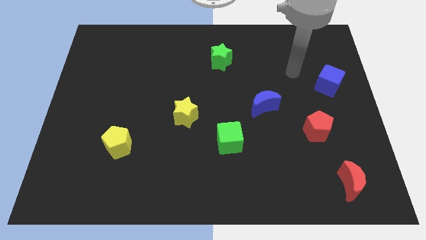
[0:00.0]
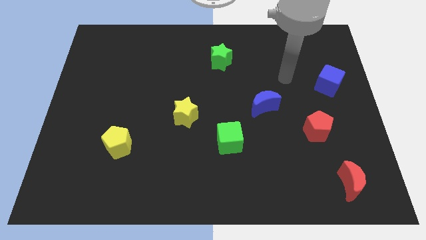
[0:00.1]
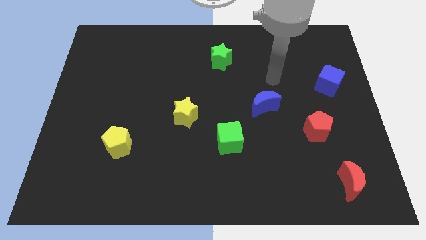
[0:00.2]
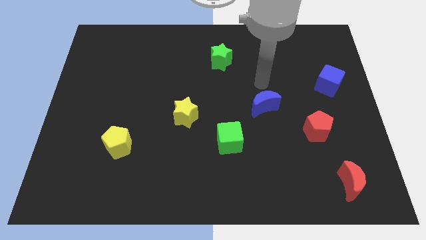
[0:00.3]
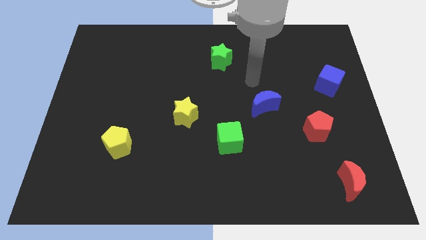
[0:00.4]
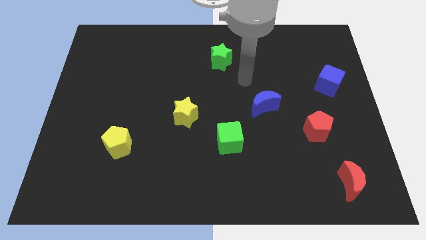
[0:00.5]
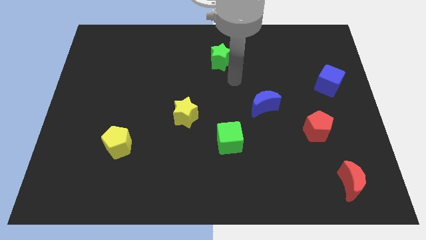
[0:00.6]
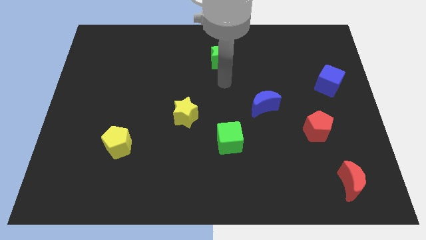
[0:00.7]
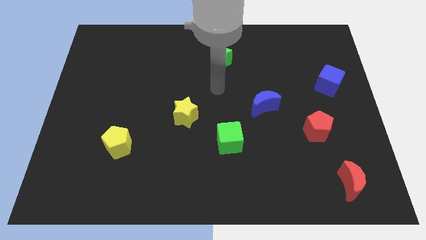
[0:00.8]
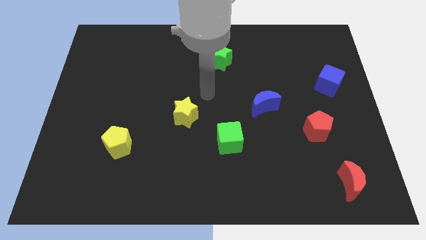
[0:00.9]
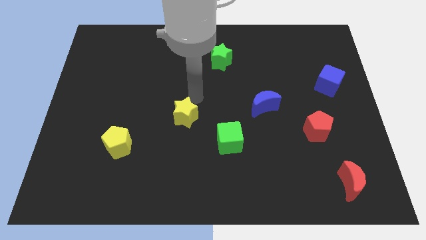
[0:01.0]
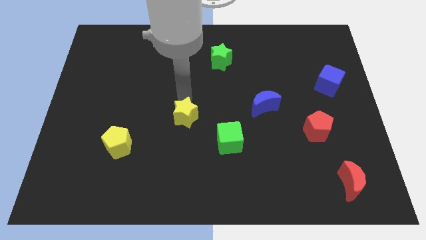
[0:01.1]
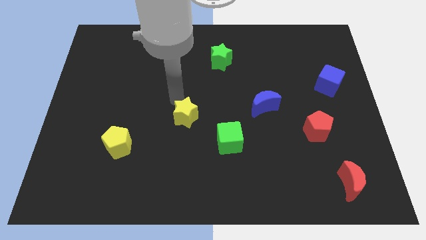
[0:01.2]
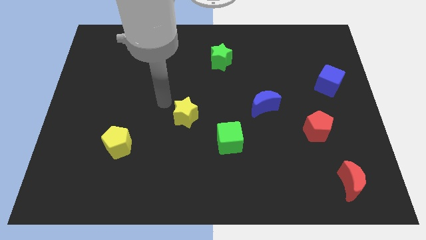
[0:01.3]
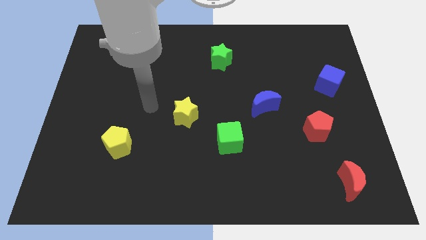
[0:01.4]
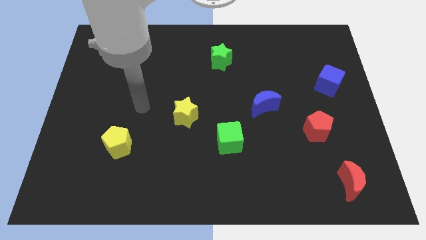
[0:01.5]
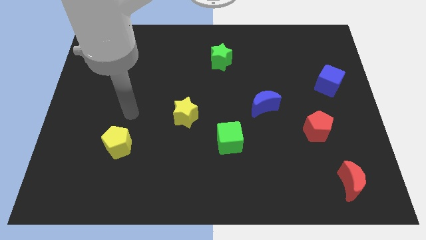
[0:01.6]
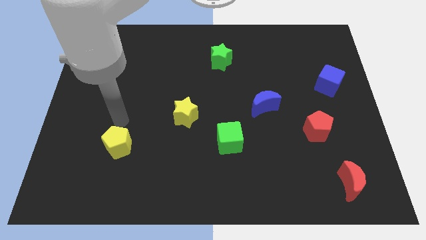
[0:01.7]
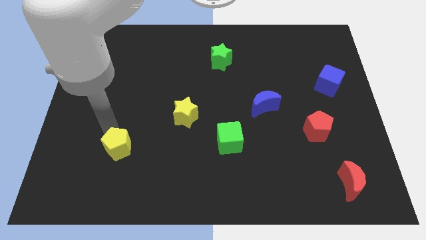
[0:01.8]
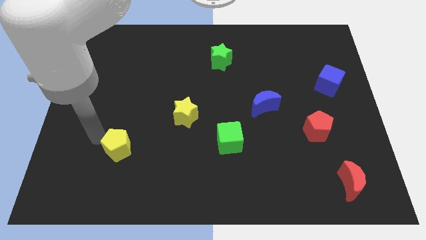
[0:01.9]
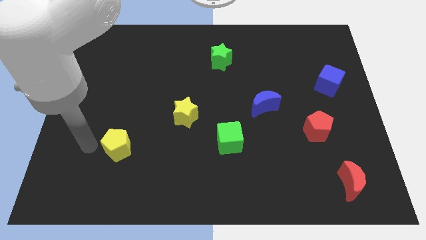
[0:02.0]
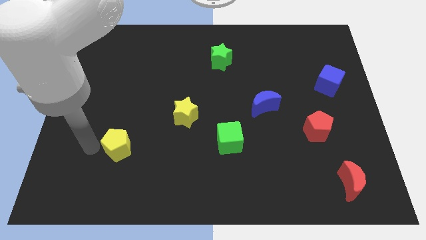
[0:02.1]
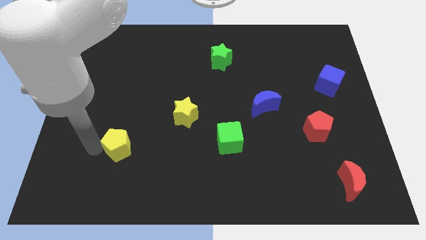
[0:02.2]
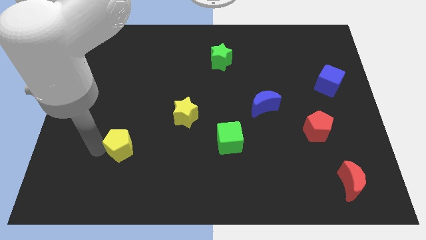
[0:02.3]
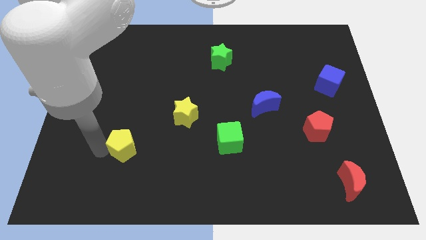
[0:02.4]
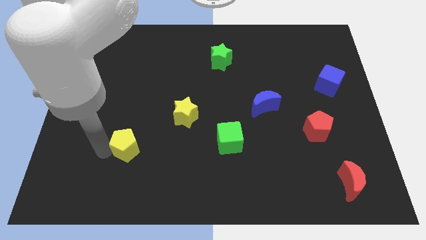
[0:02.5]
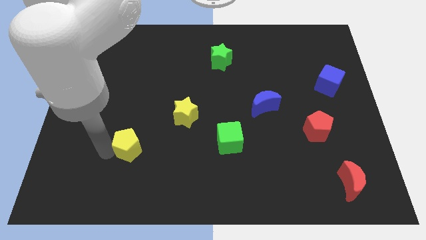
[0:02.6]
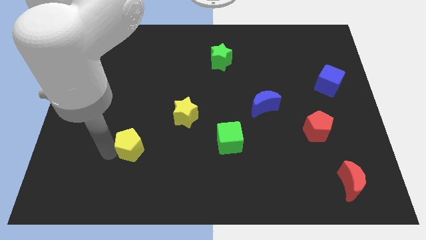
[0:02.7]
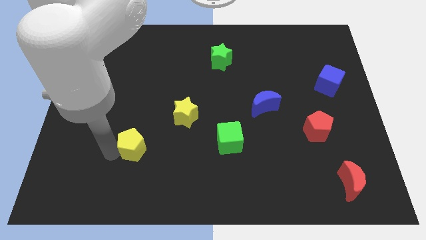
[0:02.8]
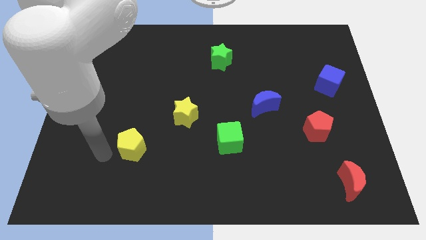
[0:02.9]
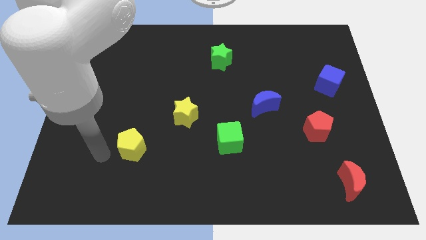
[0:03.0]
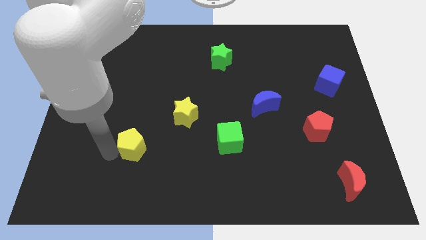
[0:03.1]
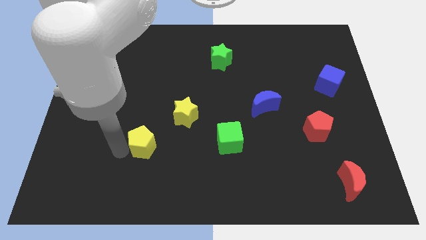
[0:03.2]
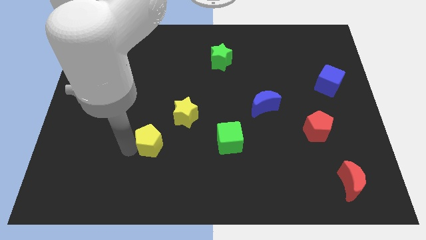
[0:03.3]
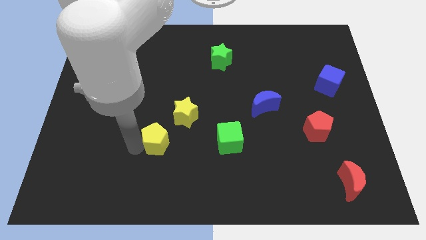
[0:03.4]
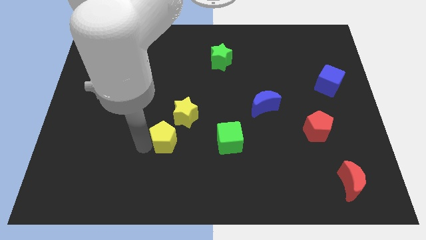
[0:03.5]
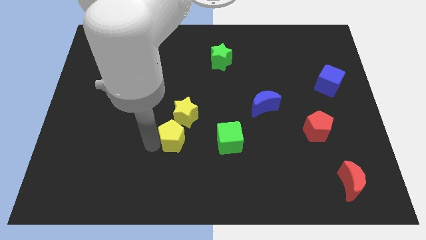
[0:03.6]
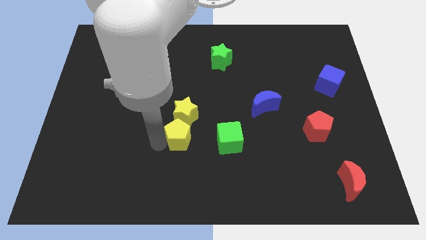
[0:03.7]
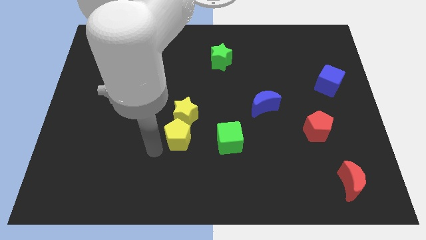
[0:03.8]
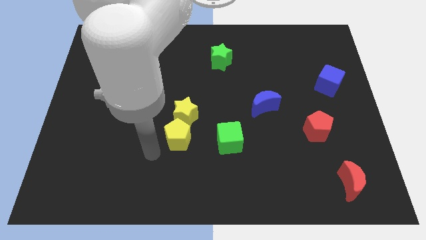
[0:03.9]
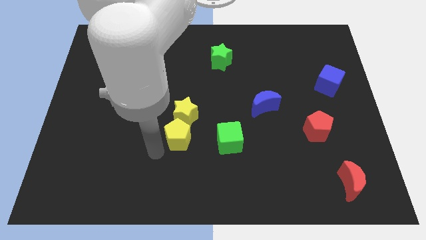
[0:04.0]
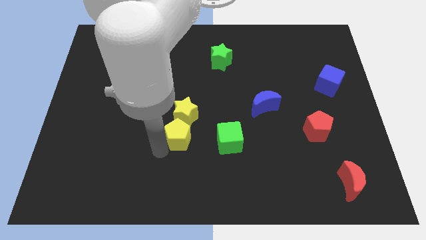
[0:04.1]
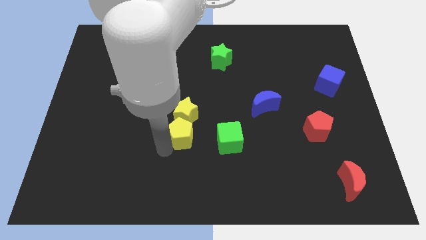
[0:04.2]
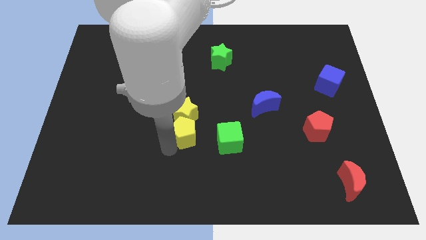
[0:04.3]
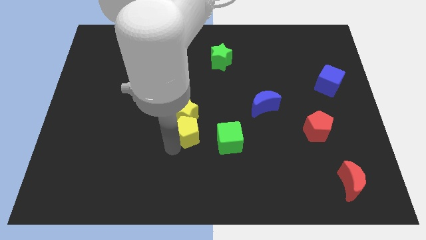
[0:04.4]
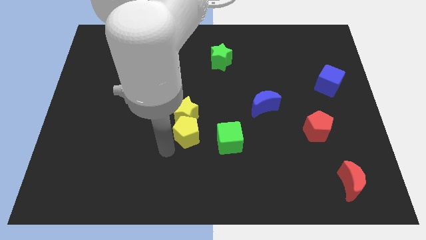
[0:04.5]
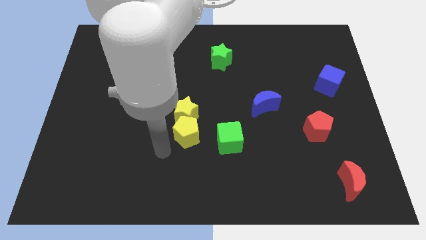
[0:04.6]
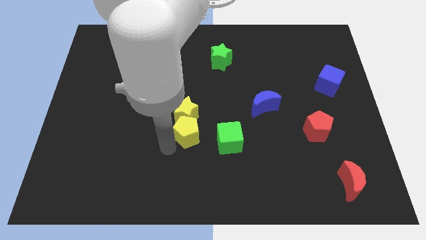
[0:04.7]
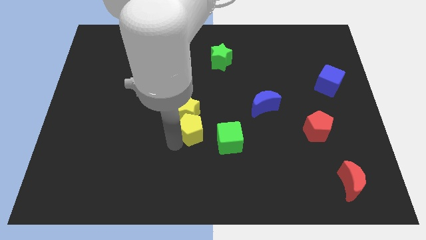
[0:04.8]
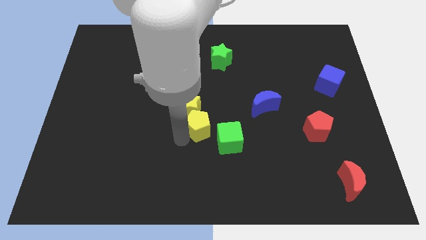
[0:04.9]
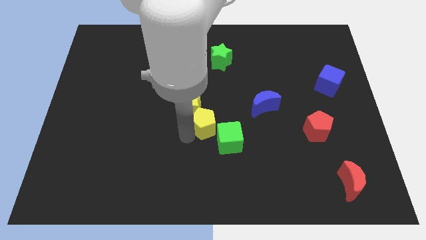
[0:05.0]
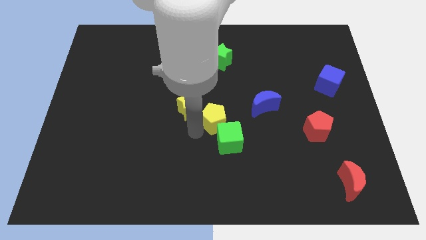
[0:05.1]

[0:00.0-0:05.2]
push the yellow pentagon to the right of the yellow star

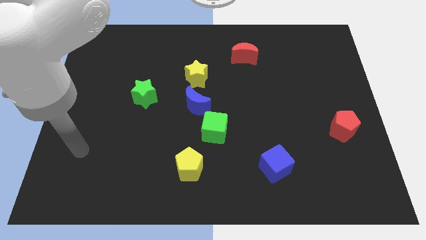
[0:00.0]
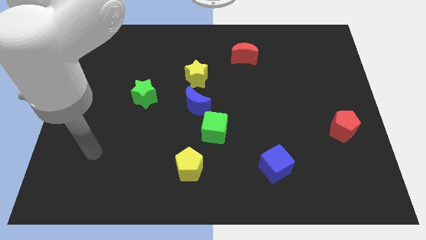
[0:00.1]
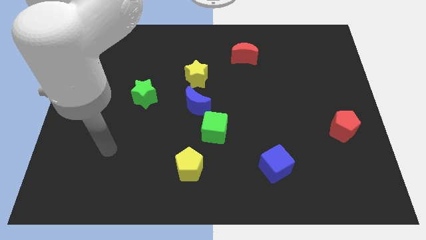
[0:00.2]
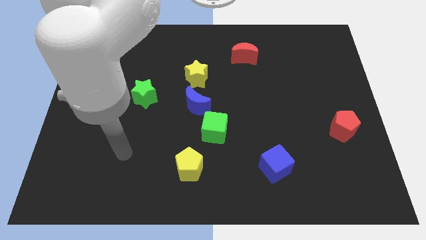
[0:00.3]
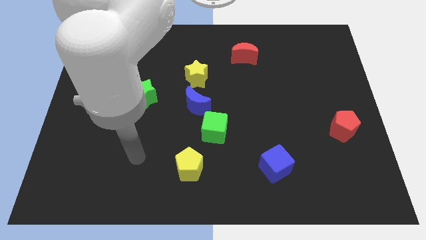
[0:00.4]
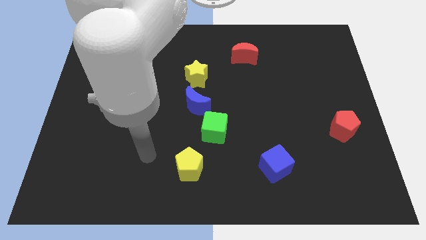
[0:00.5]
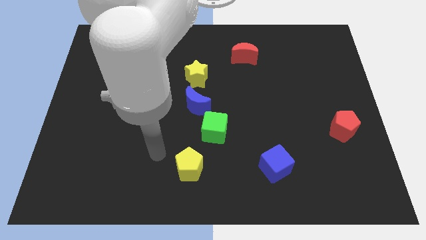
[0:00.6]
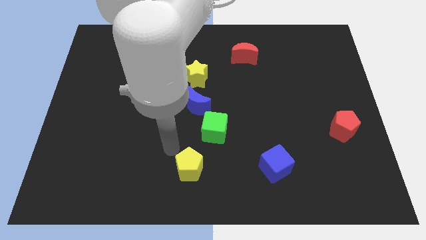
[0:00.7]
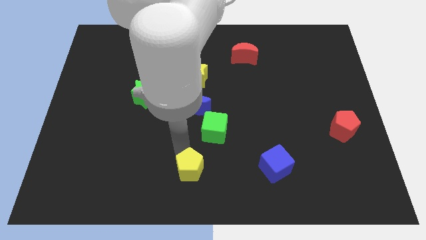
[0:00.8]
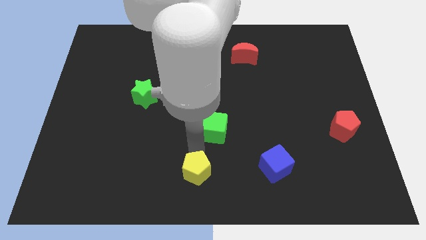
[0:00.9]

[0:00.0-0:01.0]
push the blue cube right of the yellow pentagon
